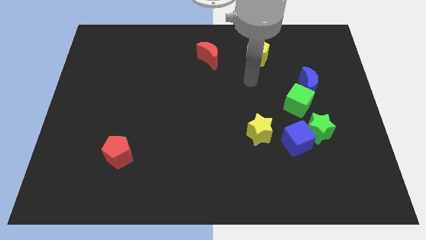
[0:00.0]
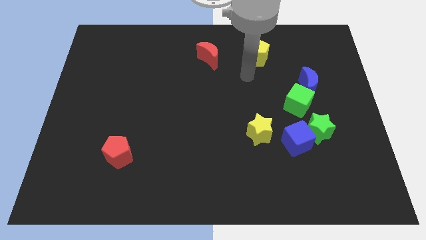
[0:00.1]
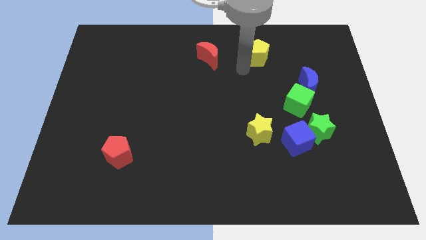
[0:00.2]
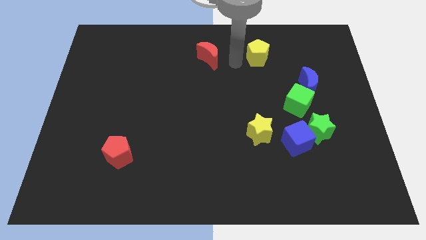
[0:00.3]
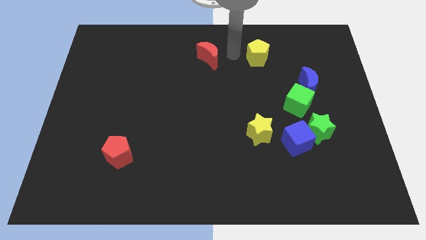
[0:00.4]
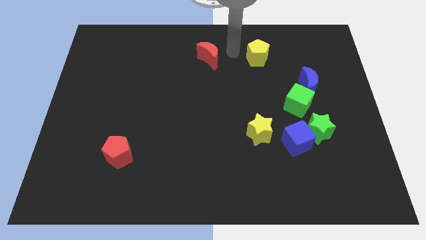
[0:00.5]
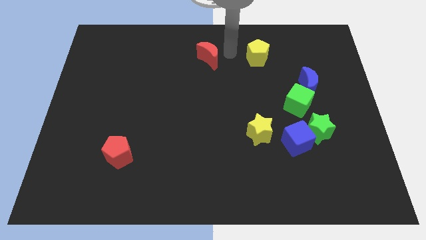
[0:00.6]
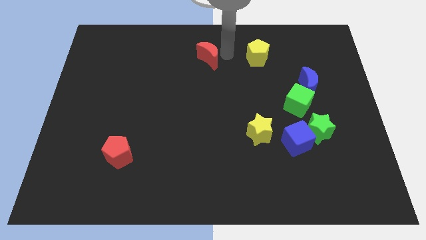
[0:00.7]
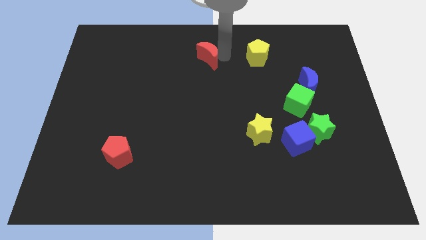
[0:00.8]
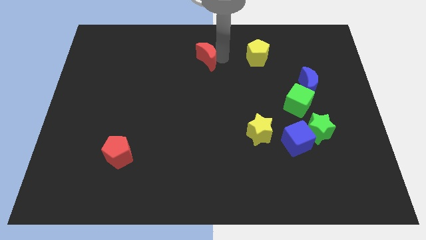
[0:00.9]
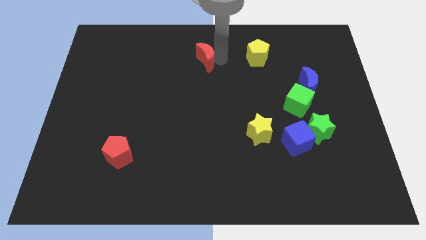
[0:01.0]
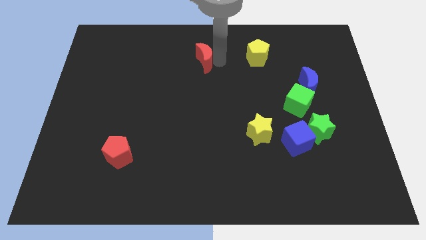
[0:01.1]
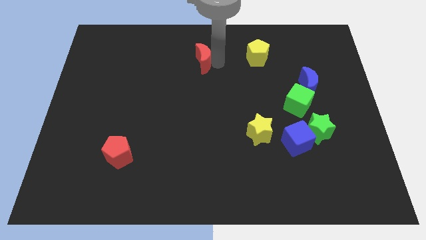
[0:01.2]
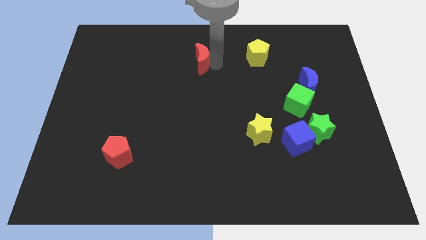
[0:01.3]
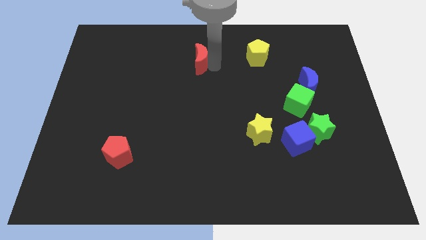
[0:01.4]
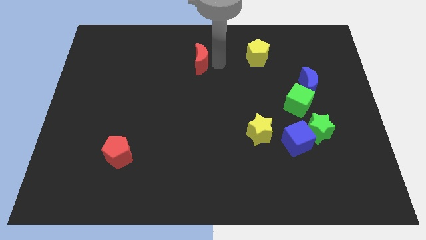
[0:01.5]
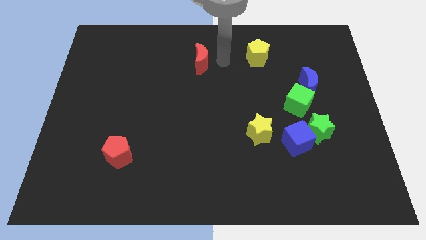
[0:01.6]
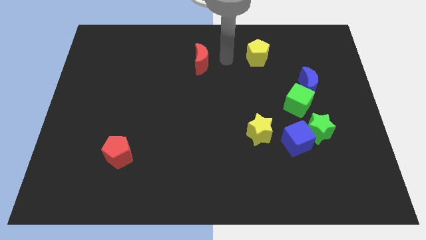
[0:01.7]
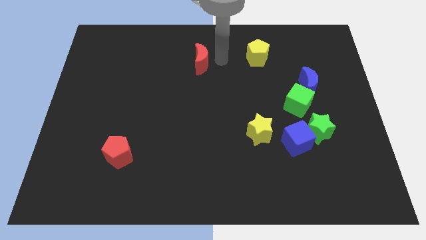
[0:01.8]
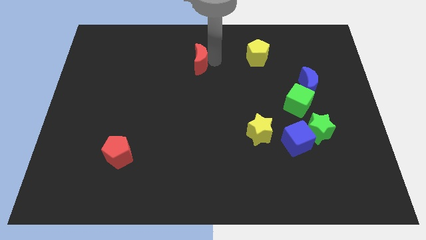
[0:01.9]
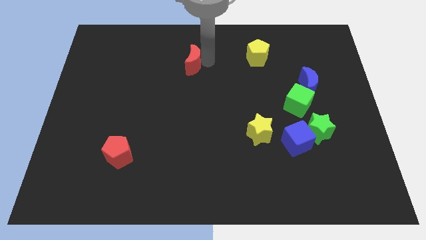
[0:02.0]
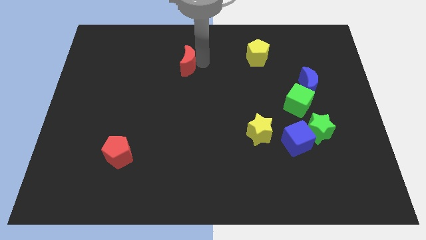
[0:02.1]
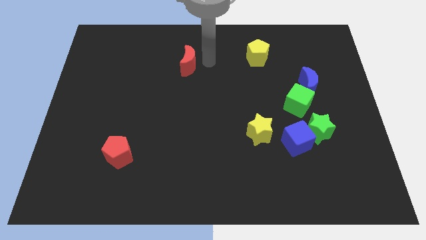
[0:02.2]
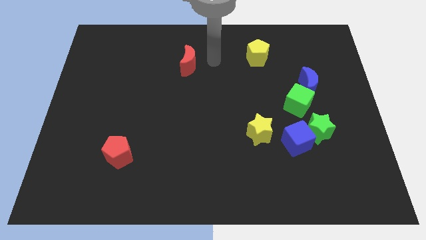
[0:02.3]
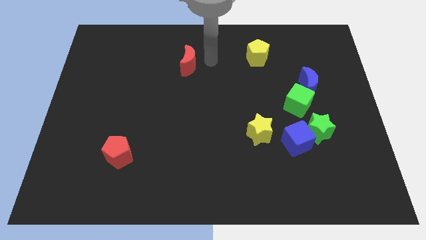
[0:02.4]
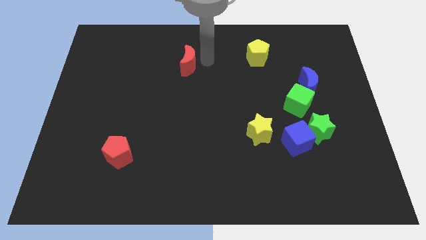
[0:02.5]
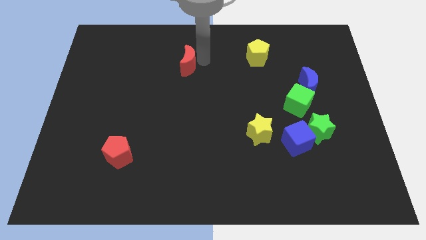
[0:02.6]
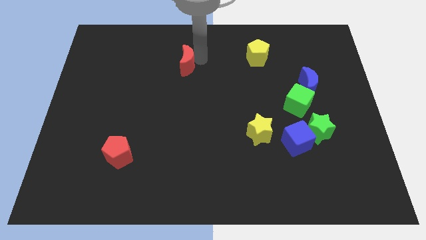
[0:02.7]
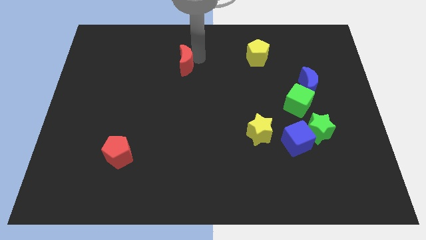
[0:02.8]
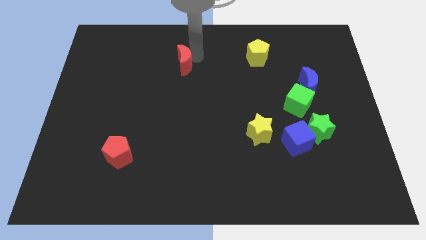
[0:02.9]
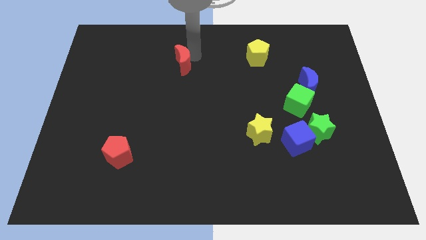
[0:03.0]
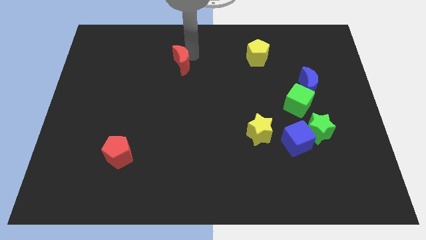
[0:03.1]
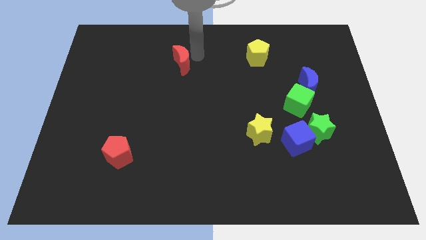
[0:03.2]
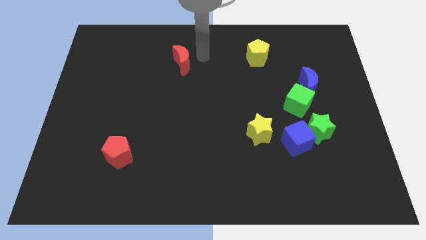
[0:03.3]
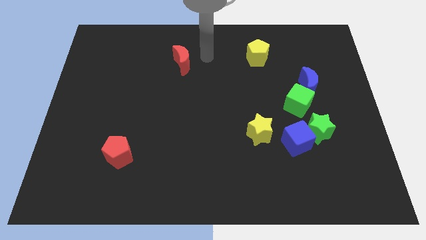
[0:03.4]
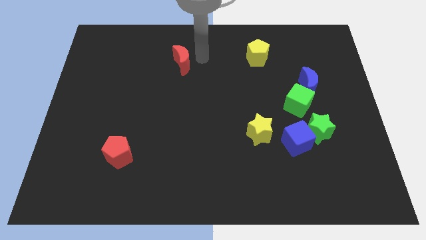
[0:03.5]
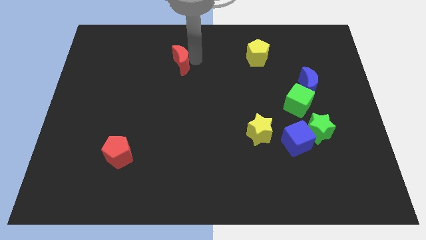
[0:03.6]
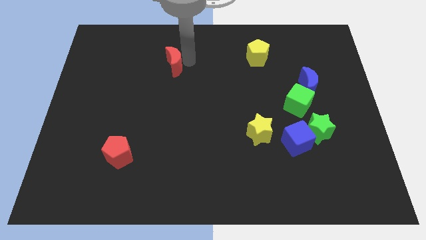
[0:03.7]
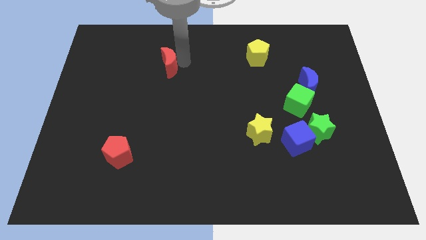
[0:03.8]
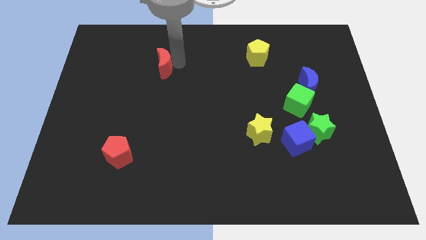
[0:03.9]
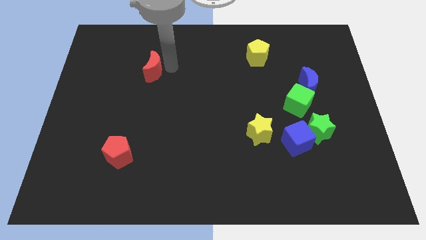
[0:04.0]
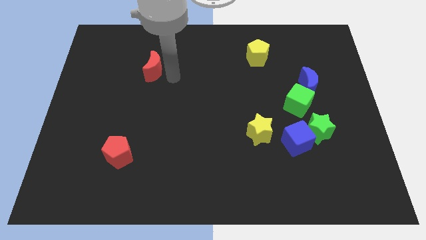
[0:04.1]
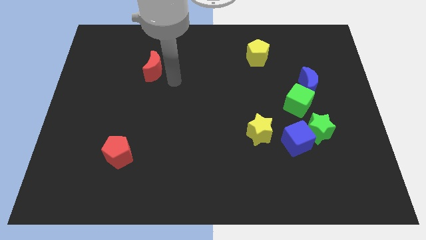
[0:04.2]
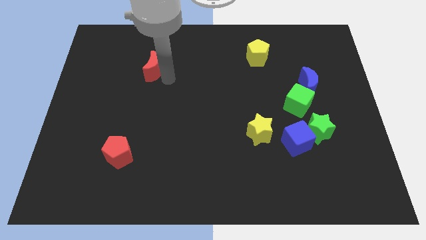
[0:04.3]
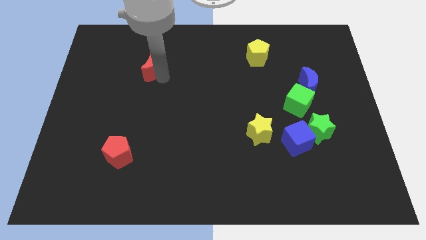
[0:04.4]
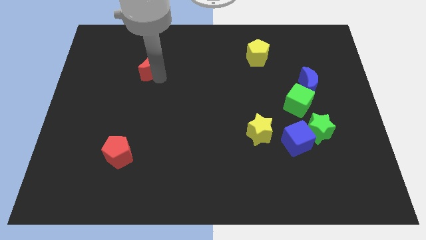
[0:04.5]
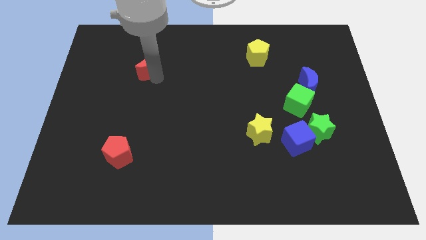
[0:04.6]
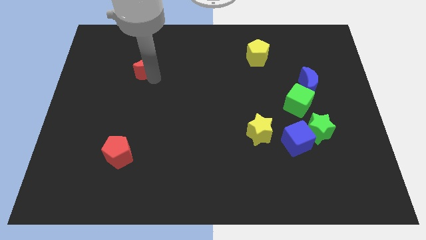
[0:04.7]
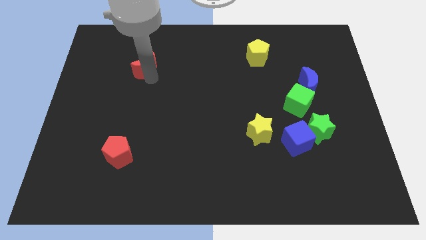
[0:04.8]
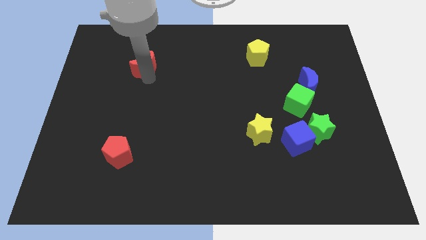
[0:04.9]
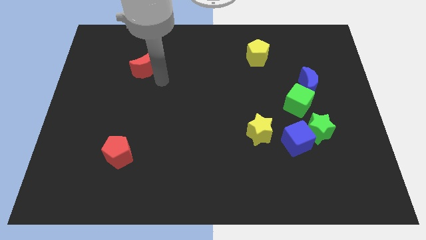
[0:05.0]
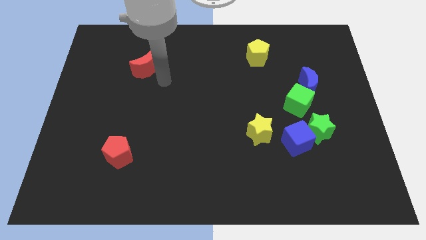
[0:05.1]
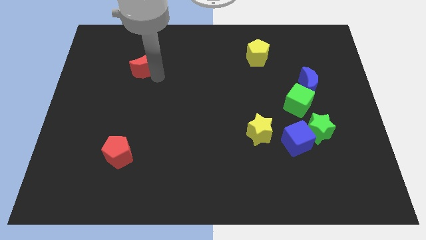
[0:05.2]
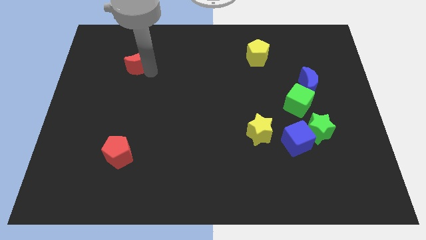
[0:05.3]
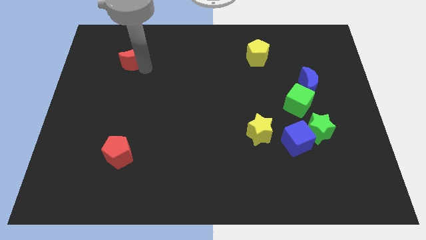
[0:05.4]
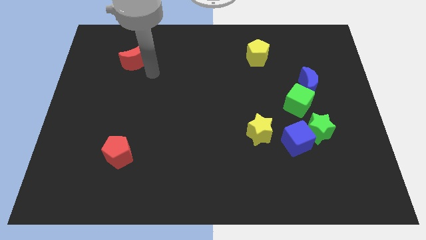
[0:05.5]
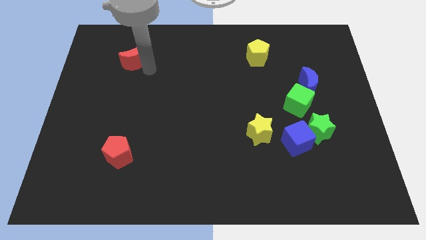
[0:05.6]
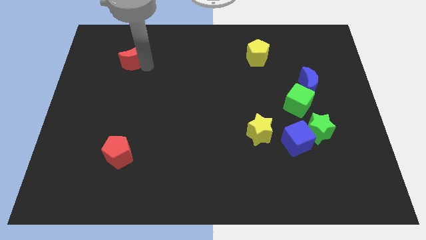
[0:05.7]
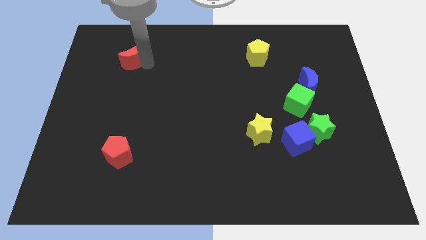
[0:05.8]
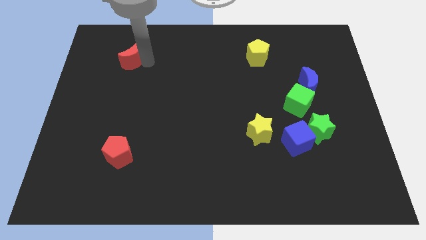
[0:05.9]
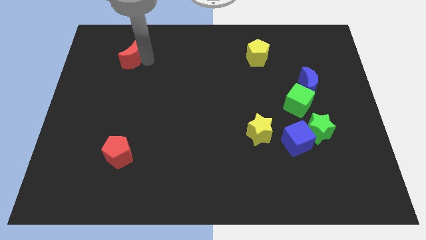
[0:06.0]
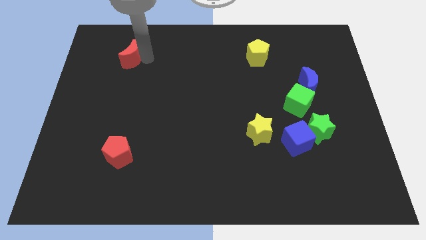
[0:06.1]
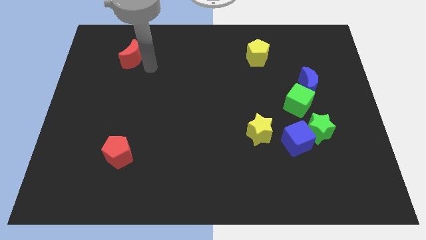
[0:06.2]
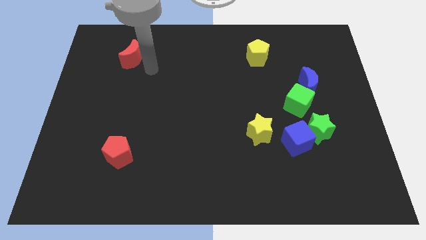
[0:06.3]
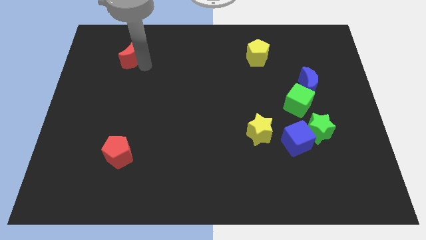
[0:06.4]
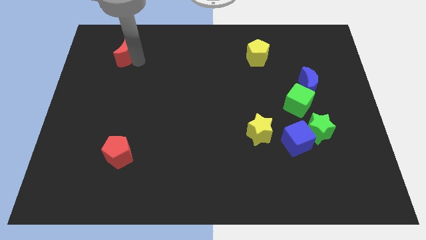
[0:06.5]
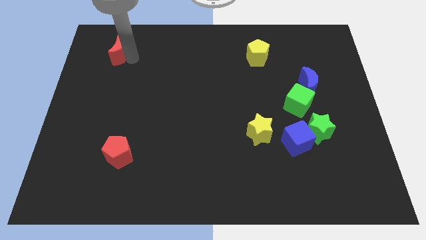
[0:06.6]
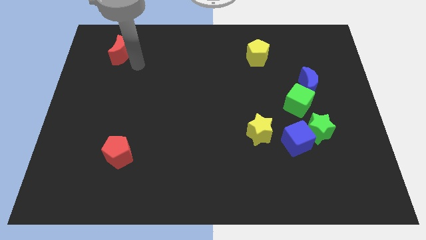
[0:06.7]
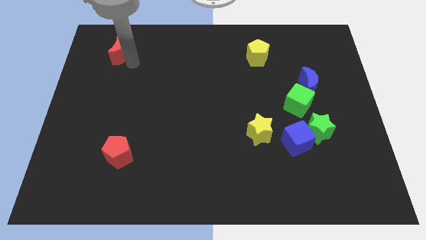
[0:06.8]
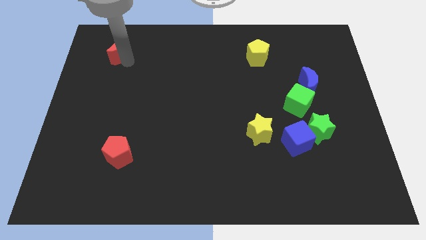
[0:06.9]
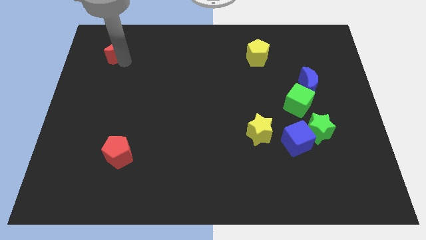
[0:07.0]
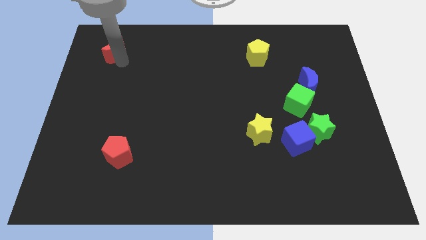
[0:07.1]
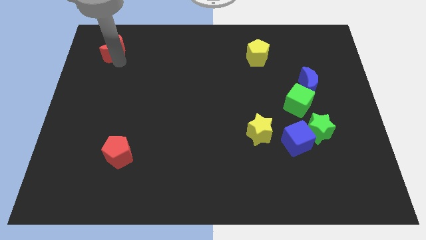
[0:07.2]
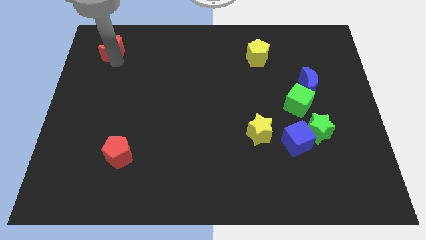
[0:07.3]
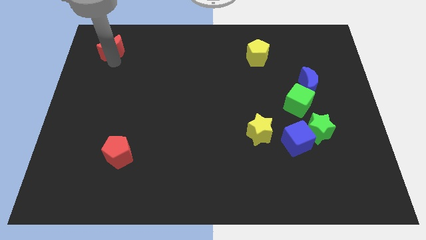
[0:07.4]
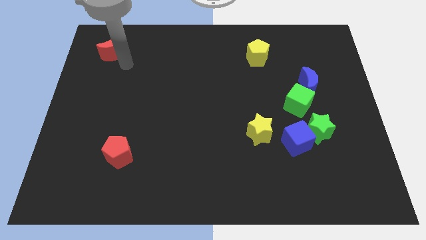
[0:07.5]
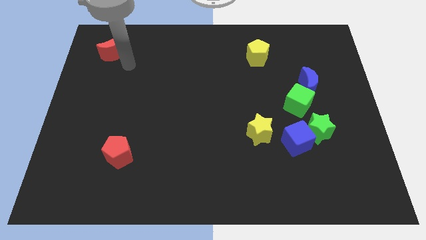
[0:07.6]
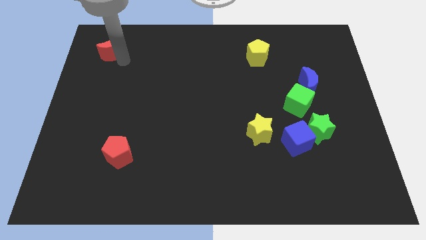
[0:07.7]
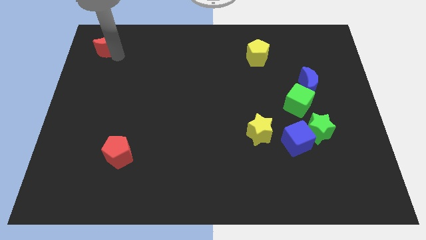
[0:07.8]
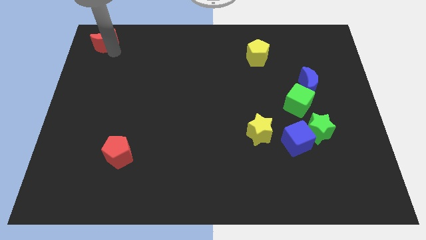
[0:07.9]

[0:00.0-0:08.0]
push the red moon to the top left
